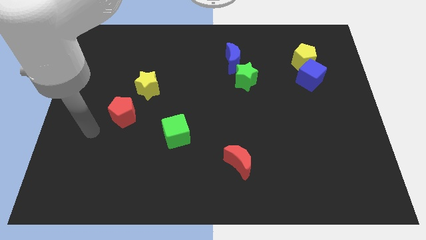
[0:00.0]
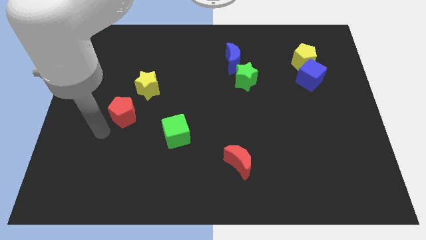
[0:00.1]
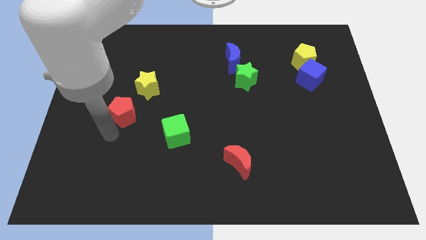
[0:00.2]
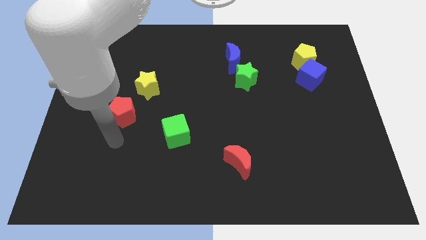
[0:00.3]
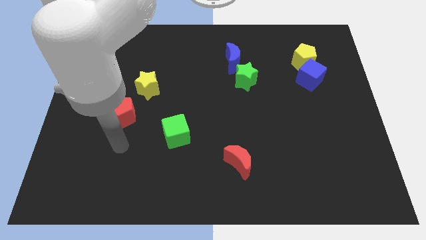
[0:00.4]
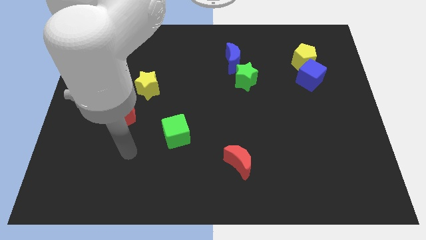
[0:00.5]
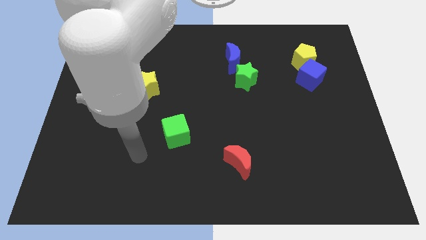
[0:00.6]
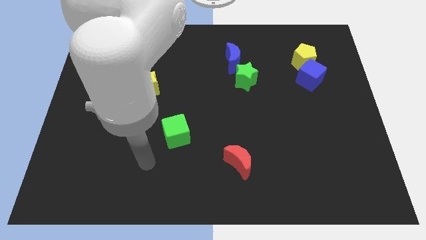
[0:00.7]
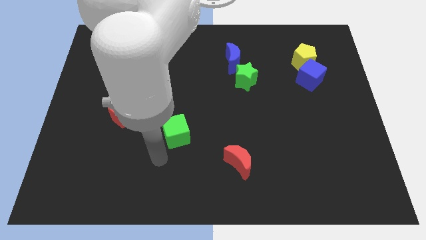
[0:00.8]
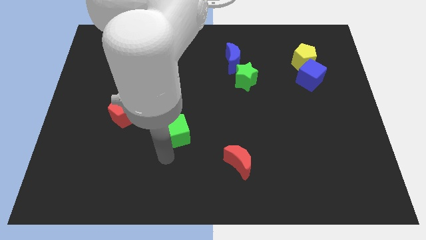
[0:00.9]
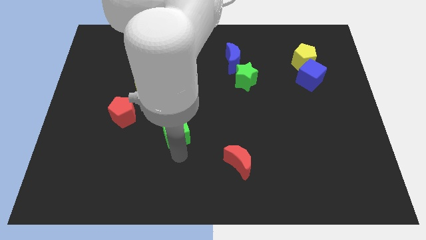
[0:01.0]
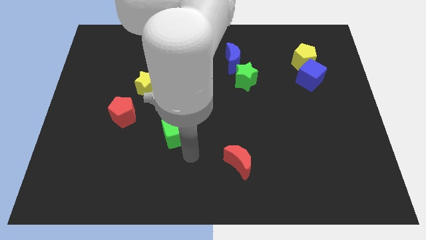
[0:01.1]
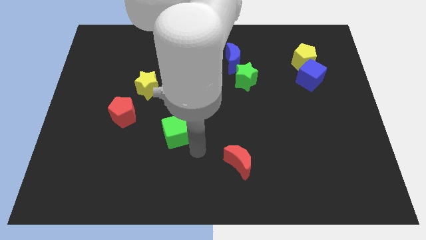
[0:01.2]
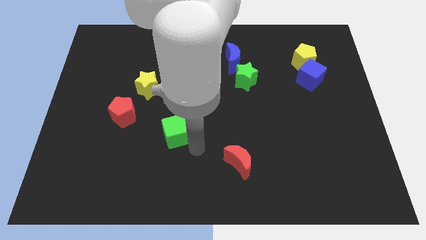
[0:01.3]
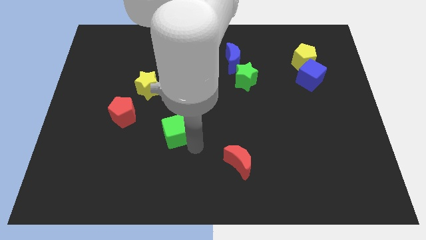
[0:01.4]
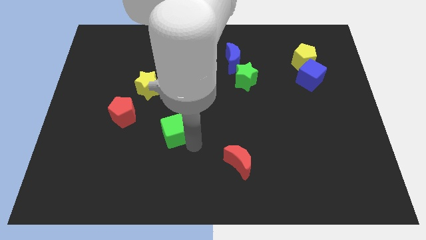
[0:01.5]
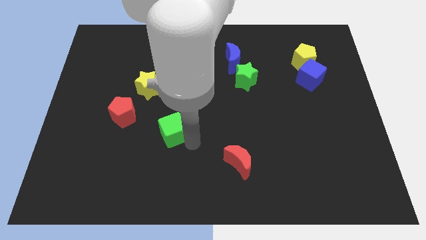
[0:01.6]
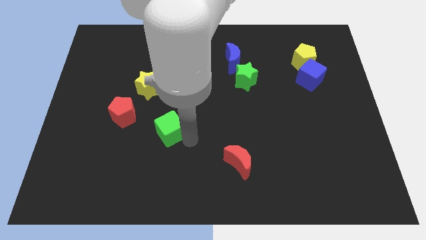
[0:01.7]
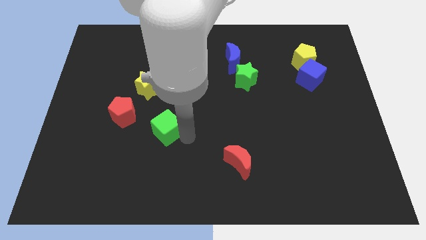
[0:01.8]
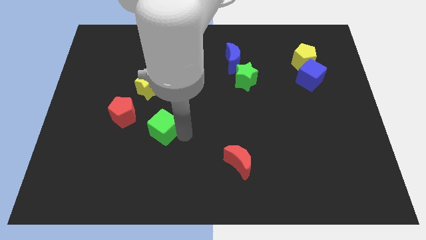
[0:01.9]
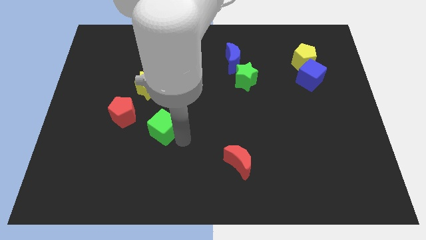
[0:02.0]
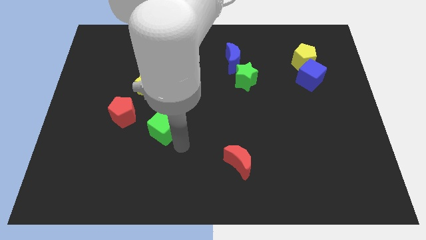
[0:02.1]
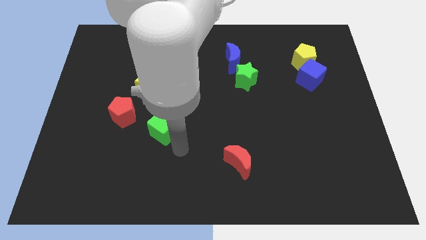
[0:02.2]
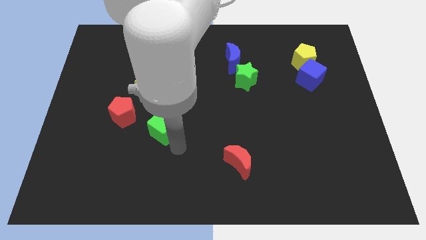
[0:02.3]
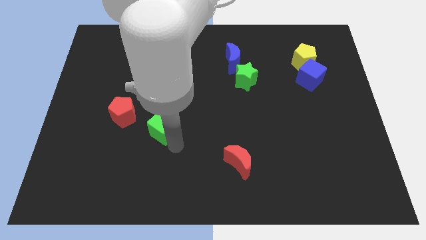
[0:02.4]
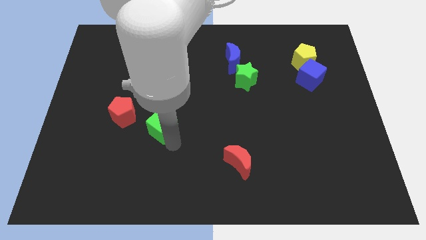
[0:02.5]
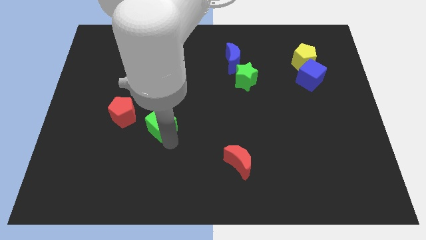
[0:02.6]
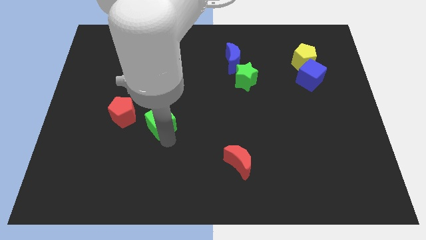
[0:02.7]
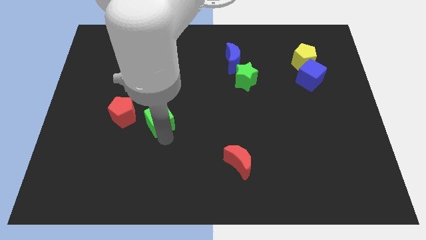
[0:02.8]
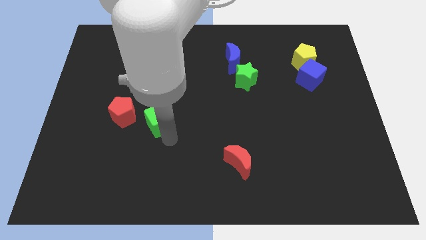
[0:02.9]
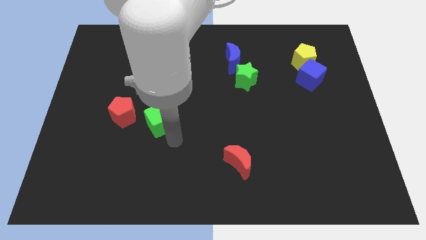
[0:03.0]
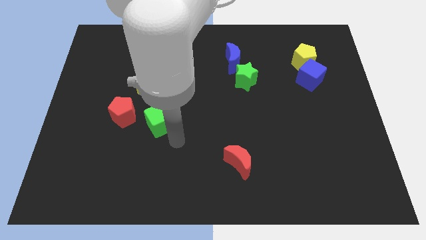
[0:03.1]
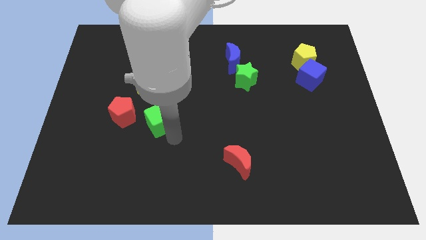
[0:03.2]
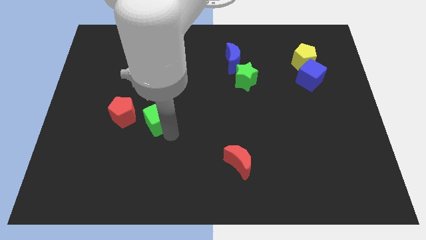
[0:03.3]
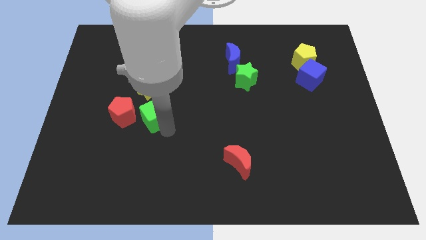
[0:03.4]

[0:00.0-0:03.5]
push the green cube up and then left a little bit

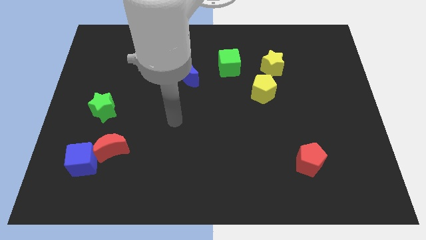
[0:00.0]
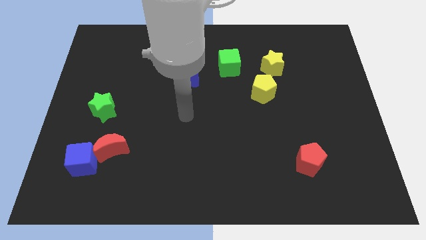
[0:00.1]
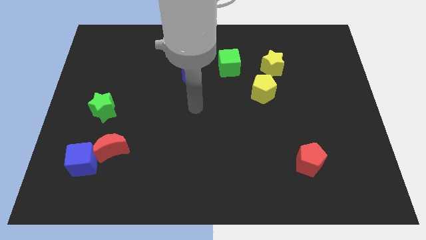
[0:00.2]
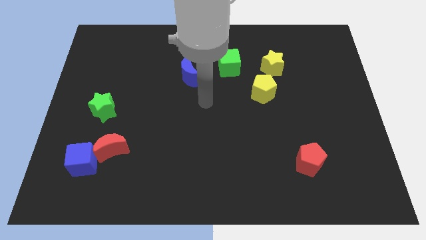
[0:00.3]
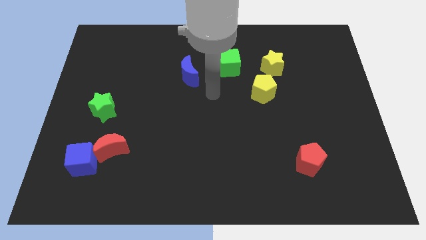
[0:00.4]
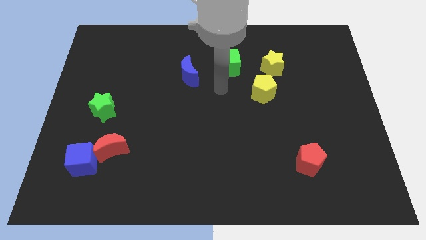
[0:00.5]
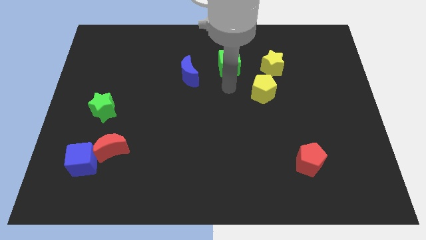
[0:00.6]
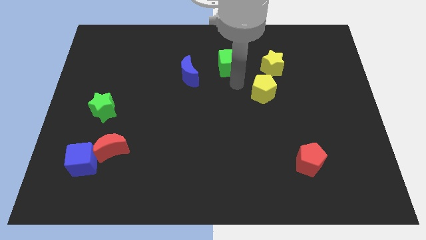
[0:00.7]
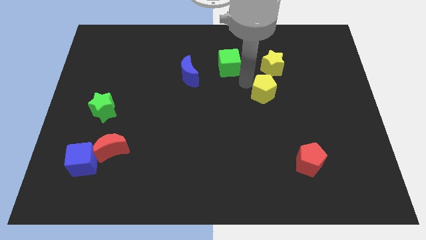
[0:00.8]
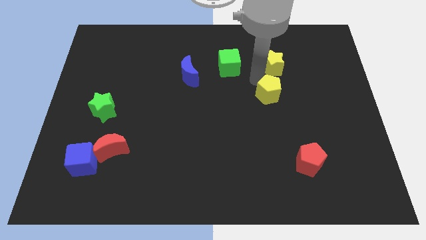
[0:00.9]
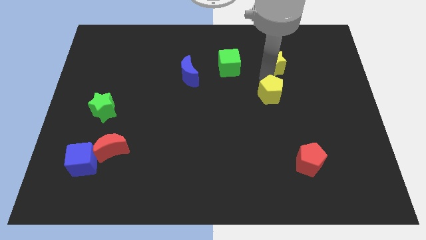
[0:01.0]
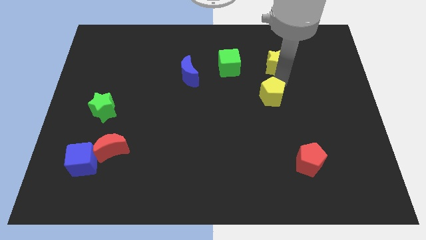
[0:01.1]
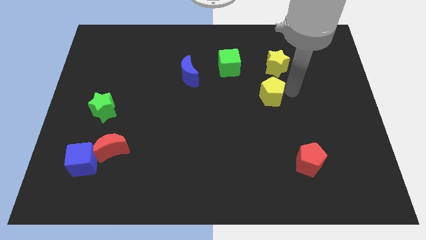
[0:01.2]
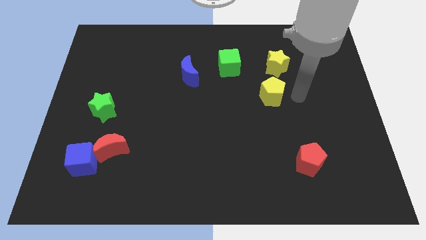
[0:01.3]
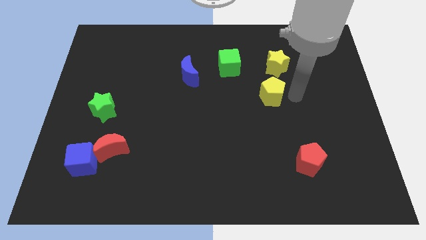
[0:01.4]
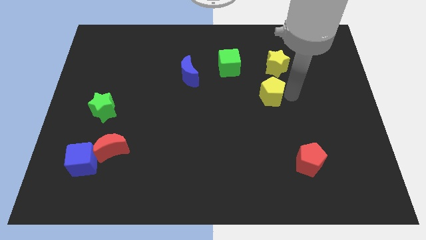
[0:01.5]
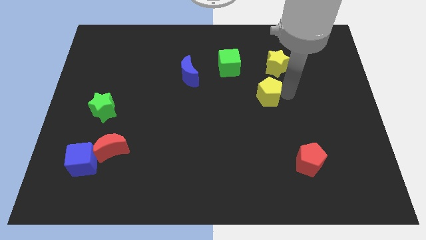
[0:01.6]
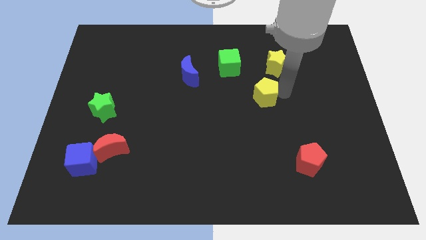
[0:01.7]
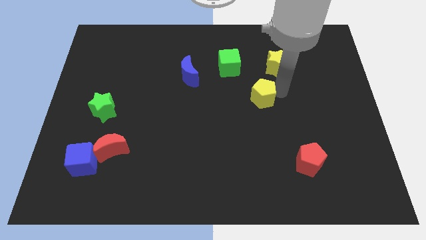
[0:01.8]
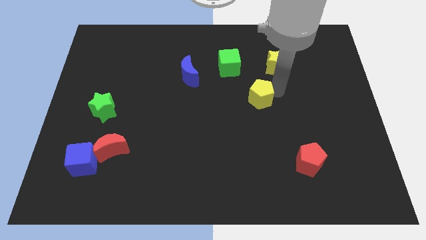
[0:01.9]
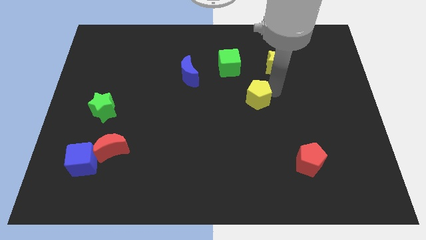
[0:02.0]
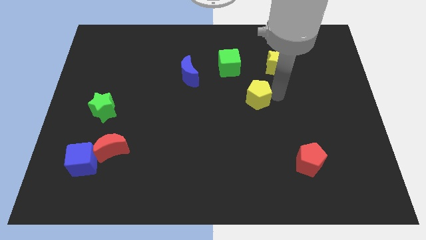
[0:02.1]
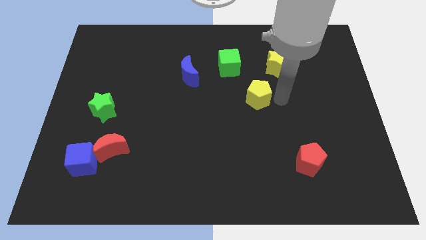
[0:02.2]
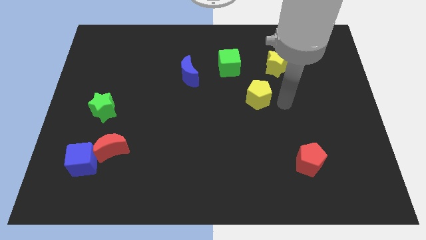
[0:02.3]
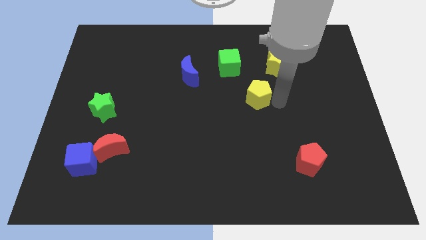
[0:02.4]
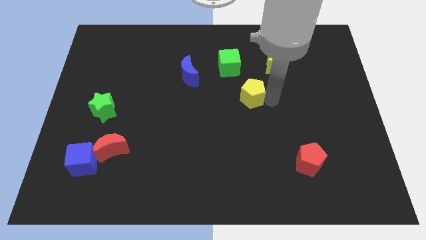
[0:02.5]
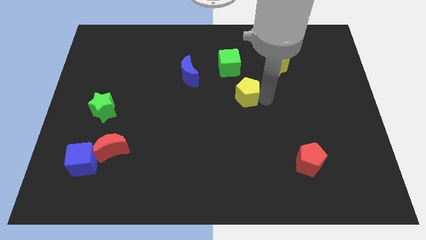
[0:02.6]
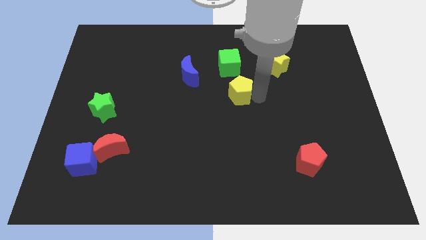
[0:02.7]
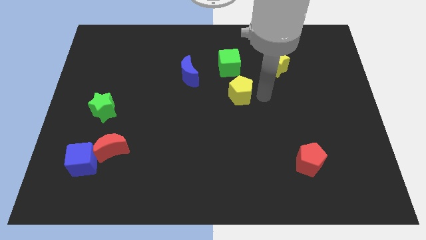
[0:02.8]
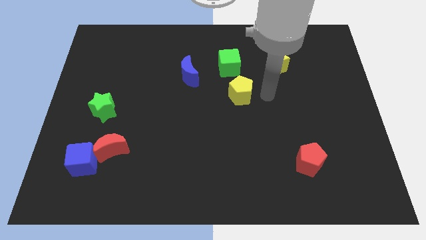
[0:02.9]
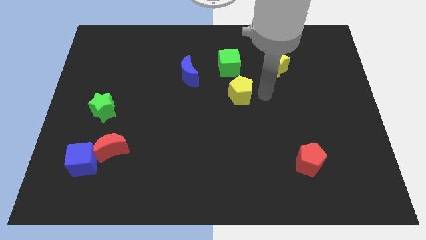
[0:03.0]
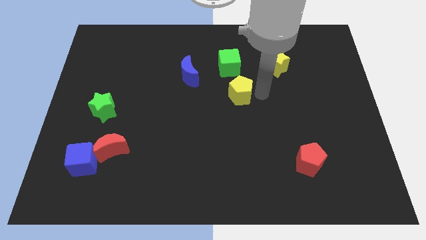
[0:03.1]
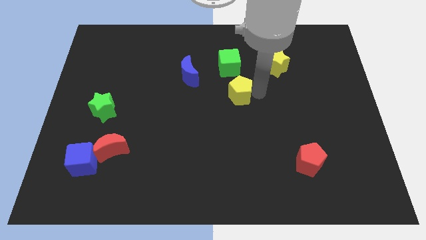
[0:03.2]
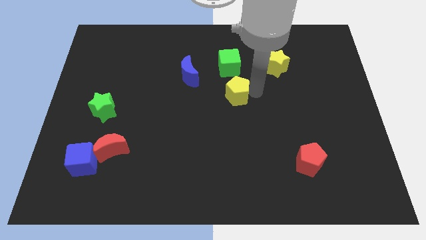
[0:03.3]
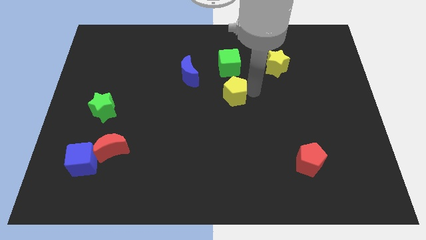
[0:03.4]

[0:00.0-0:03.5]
move the yellow pentagon a little bit to the left

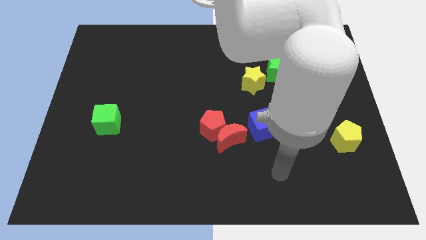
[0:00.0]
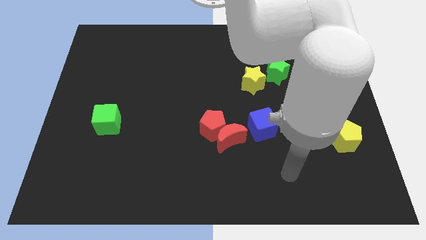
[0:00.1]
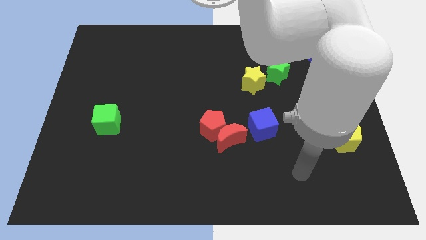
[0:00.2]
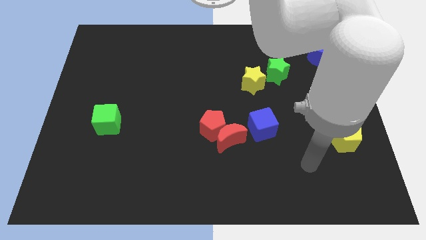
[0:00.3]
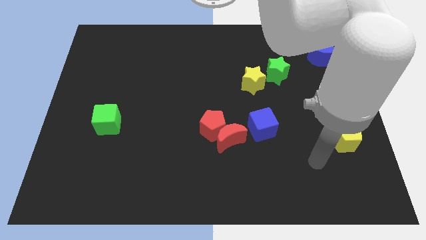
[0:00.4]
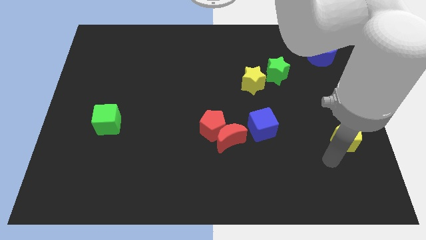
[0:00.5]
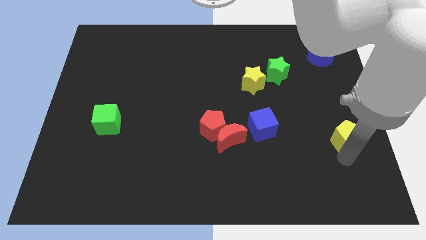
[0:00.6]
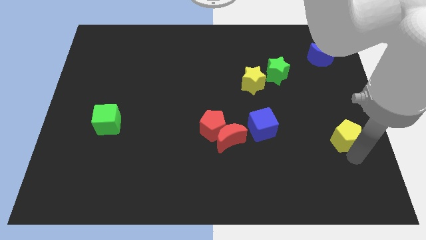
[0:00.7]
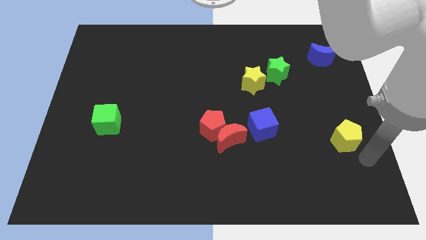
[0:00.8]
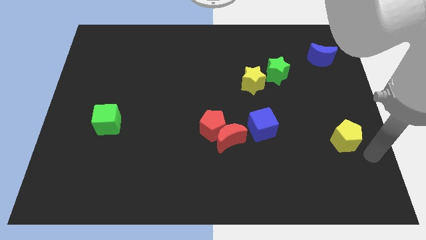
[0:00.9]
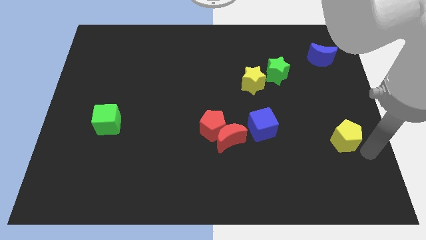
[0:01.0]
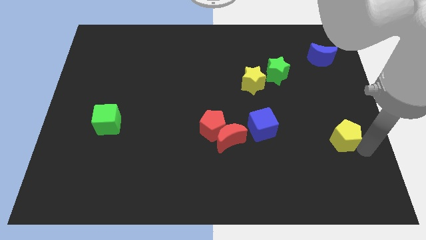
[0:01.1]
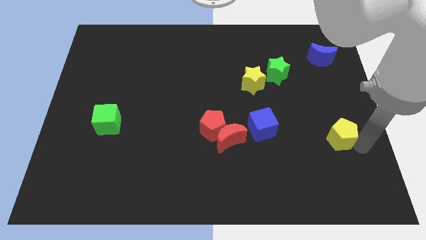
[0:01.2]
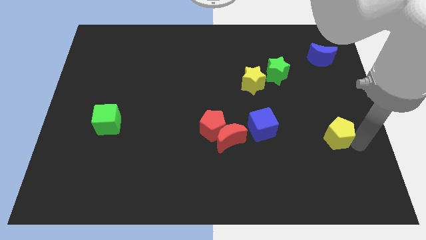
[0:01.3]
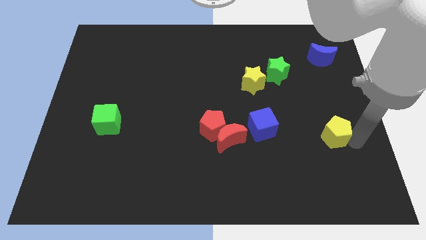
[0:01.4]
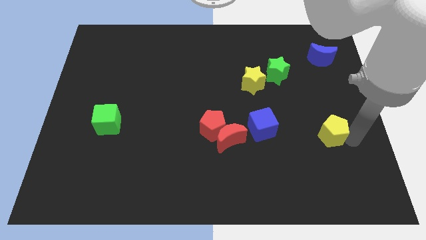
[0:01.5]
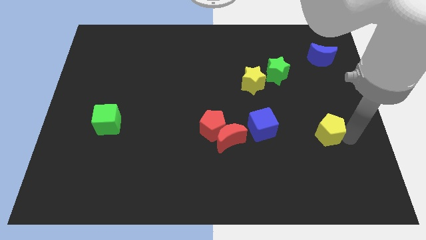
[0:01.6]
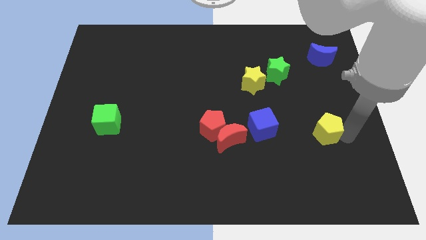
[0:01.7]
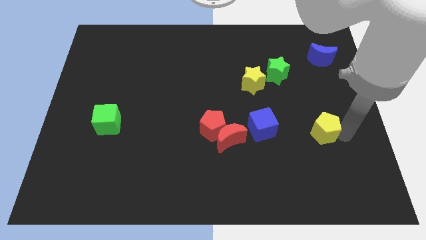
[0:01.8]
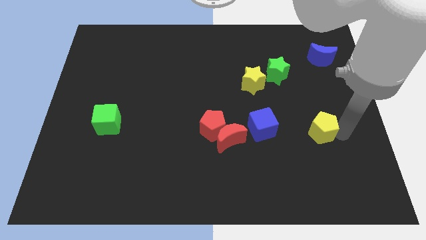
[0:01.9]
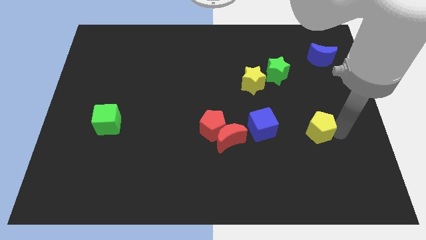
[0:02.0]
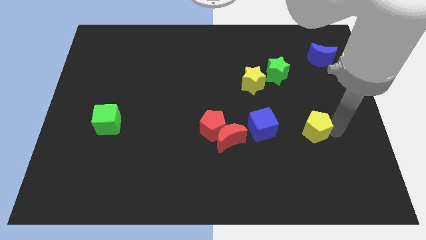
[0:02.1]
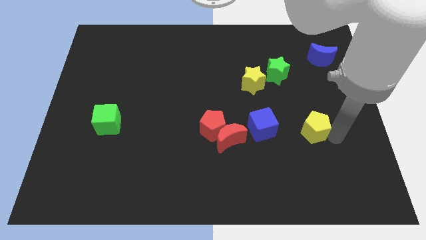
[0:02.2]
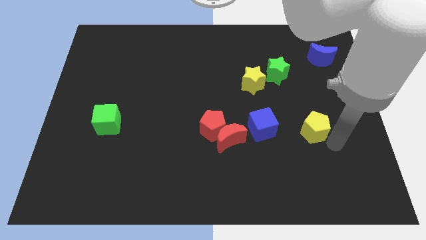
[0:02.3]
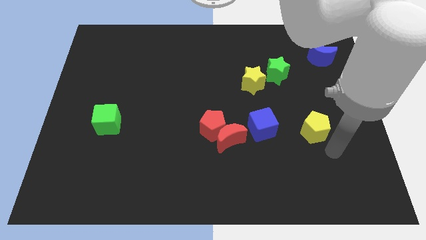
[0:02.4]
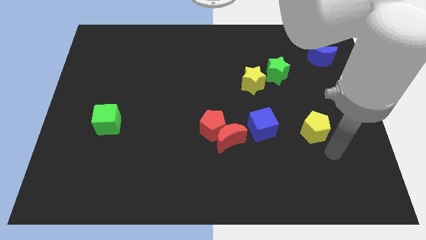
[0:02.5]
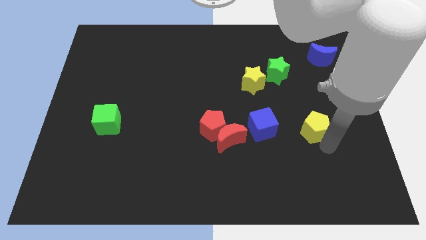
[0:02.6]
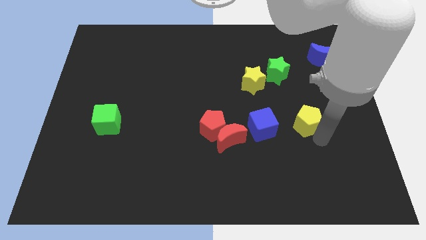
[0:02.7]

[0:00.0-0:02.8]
move the yellow pentagon somewhat upwards and then to the left
